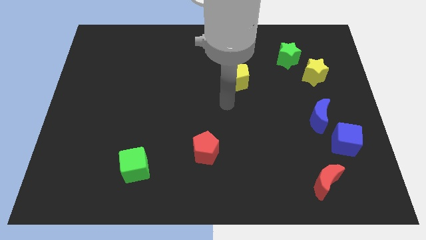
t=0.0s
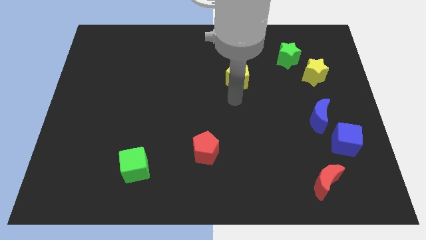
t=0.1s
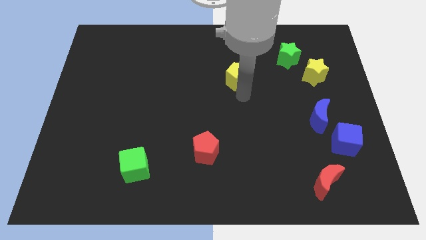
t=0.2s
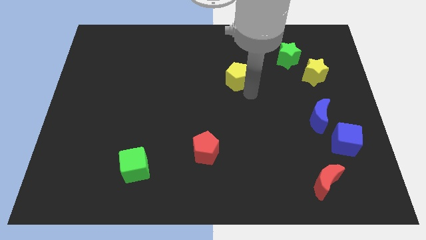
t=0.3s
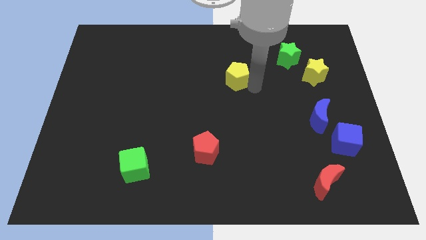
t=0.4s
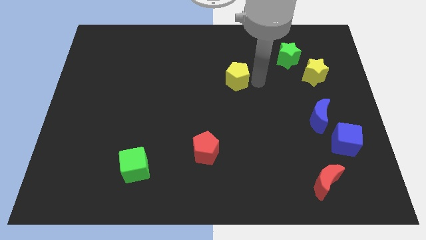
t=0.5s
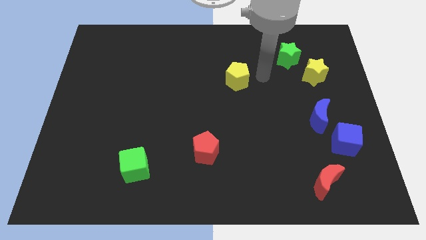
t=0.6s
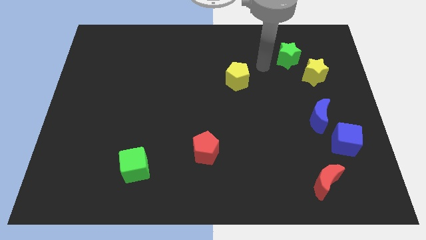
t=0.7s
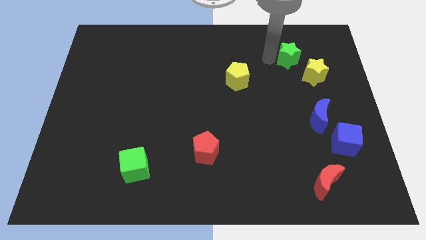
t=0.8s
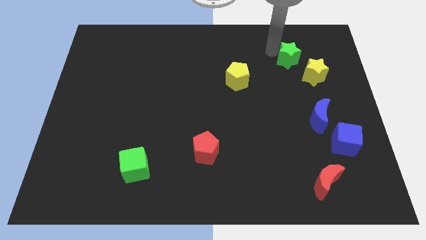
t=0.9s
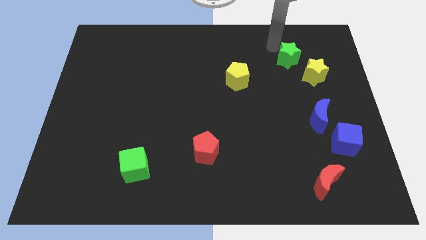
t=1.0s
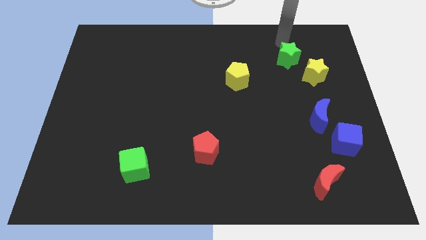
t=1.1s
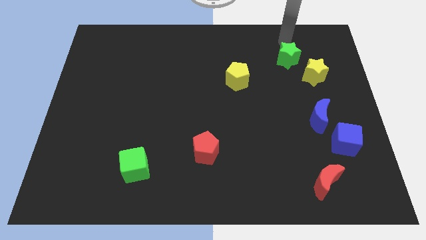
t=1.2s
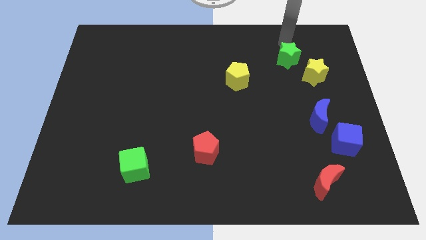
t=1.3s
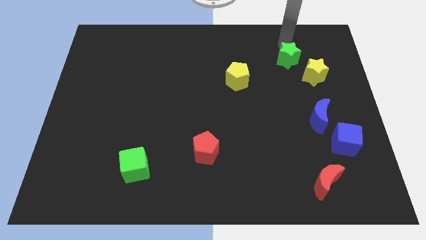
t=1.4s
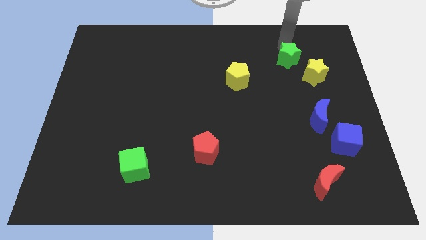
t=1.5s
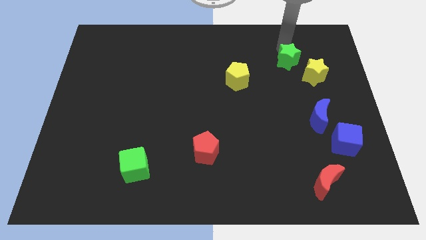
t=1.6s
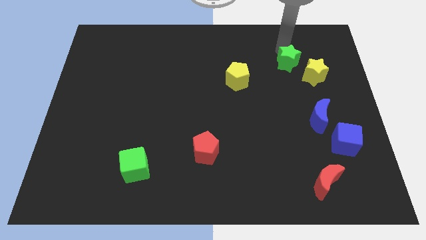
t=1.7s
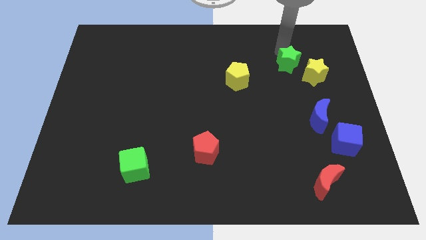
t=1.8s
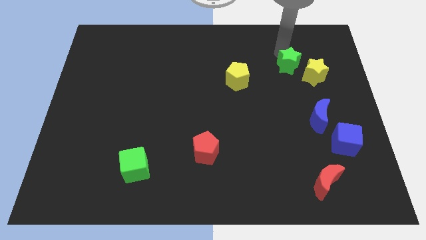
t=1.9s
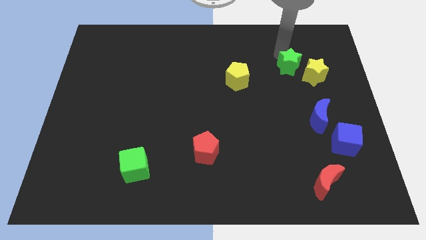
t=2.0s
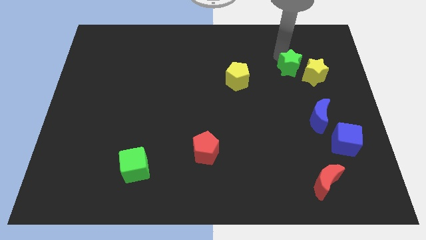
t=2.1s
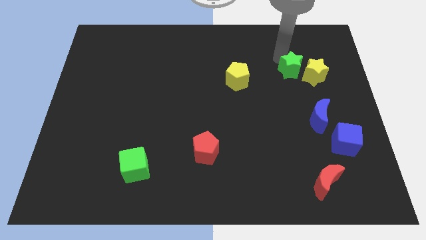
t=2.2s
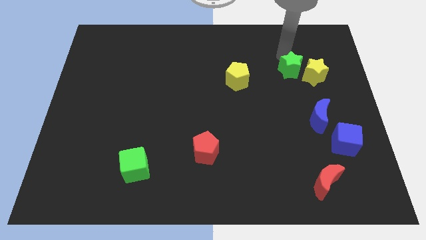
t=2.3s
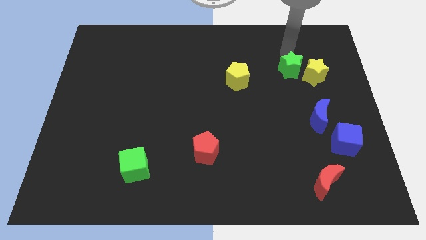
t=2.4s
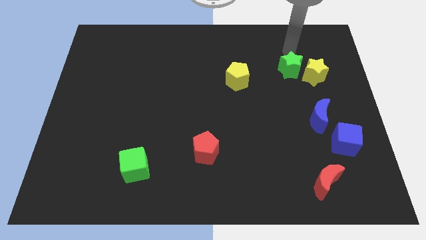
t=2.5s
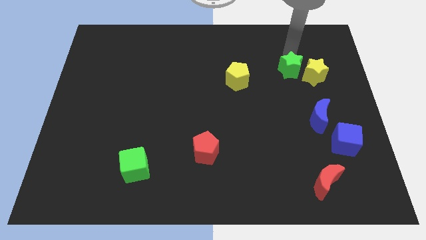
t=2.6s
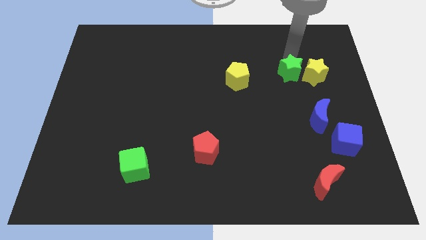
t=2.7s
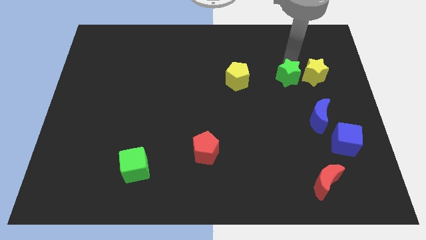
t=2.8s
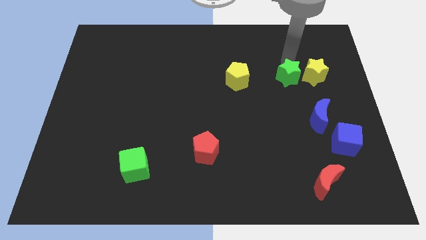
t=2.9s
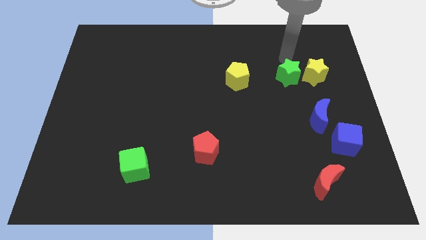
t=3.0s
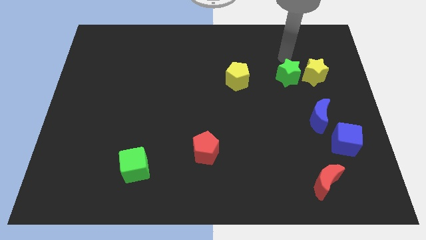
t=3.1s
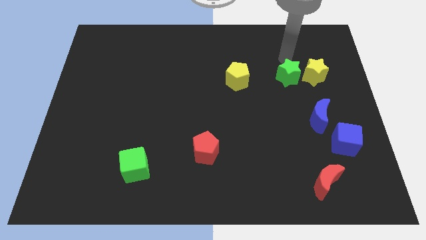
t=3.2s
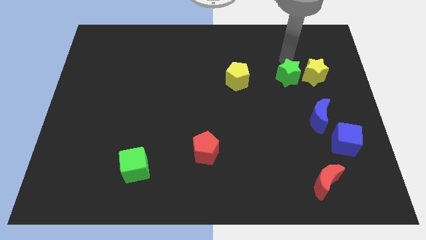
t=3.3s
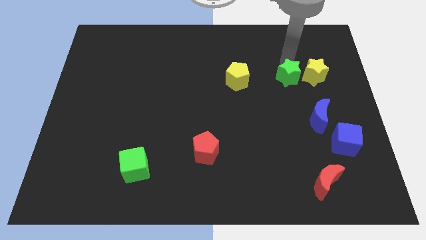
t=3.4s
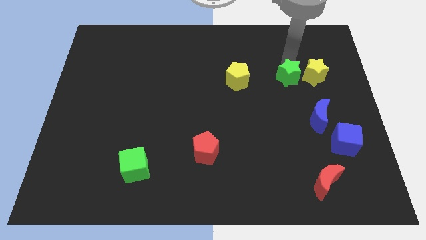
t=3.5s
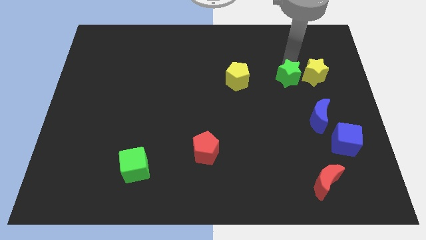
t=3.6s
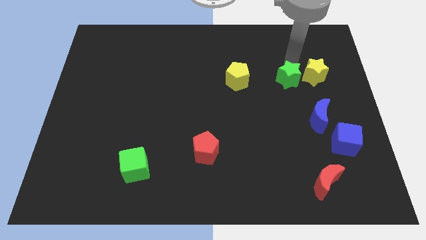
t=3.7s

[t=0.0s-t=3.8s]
move the green star downwards a little

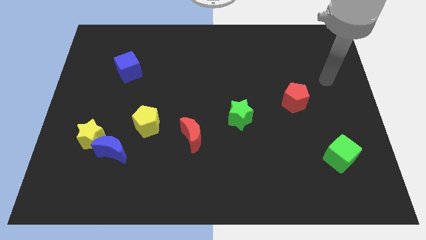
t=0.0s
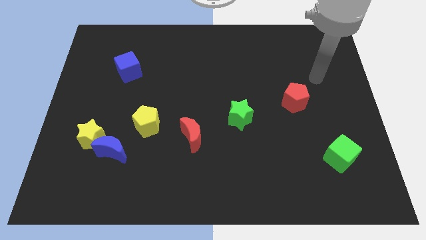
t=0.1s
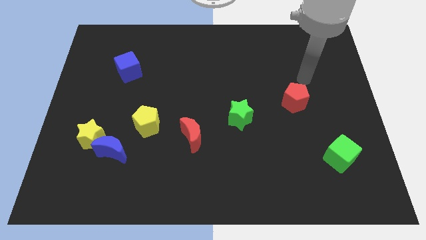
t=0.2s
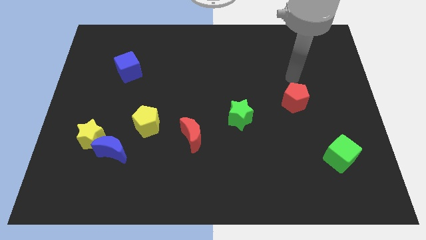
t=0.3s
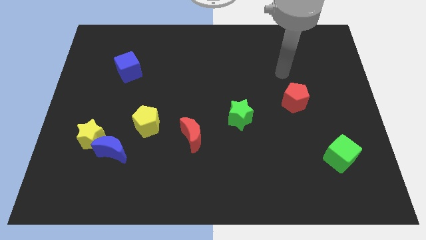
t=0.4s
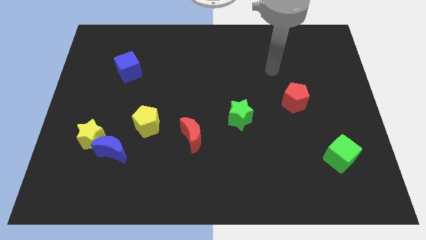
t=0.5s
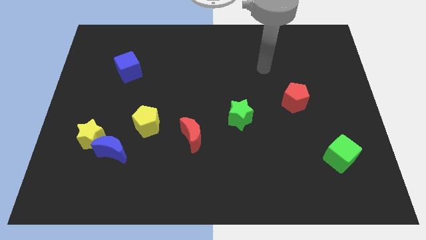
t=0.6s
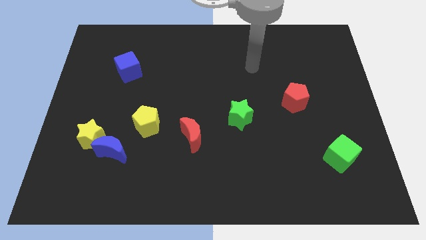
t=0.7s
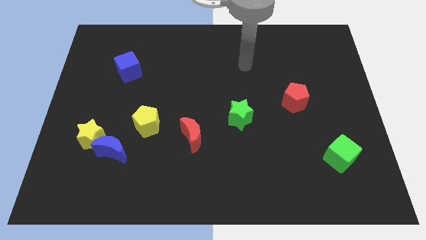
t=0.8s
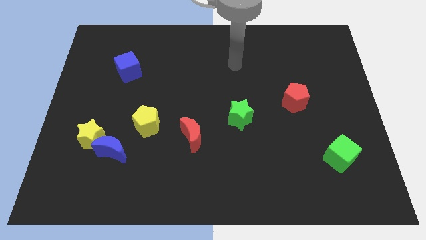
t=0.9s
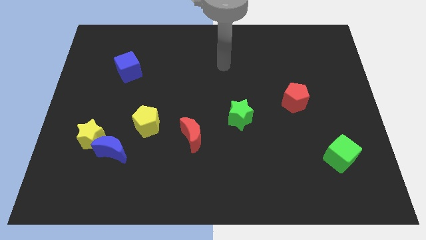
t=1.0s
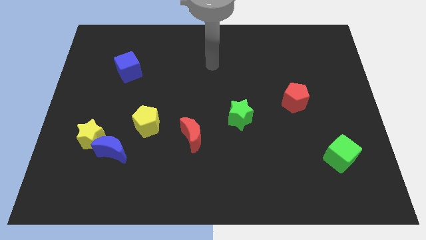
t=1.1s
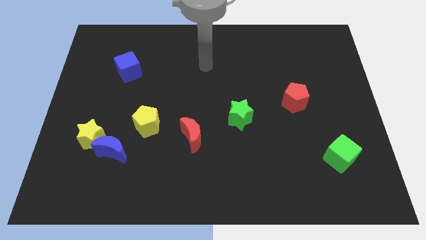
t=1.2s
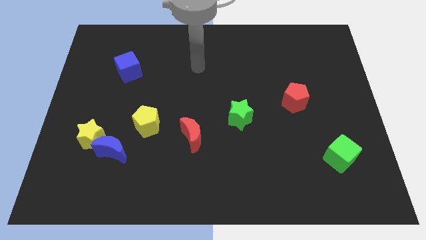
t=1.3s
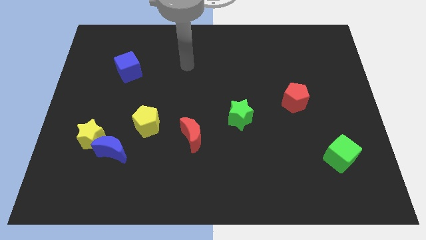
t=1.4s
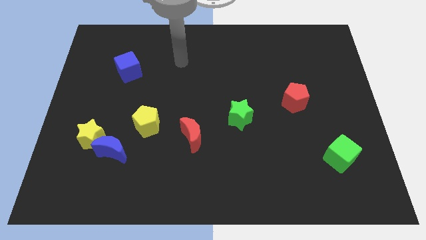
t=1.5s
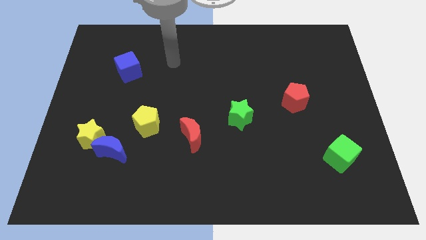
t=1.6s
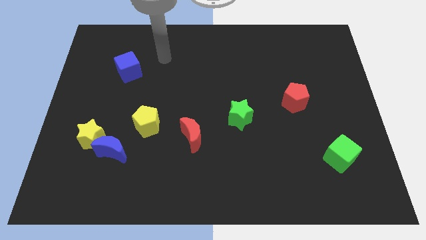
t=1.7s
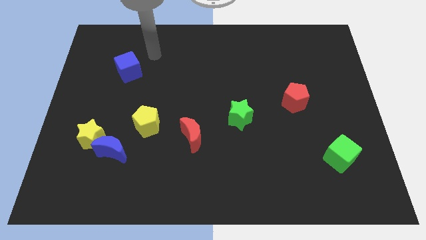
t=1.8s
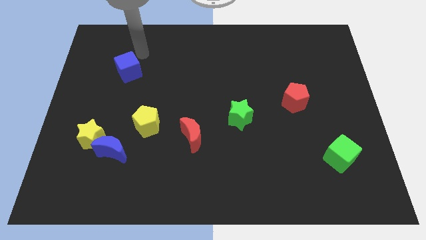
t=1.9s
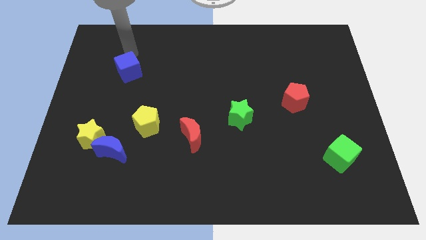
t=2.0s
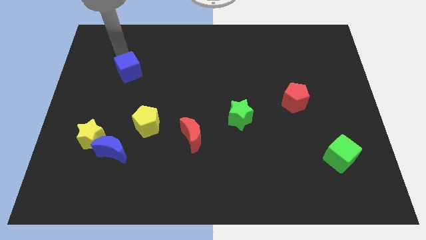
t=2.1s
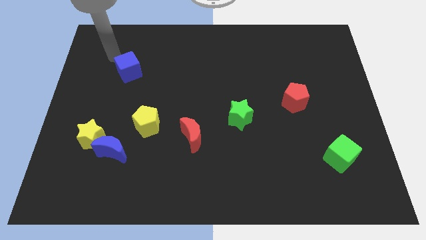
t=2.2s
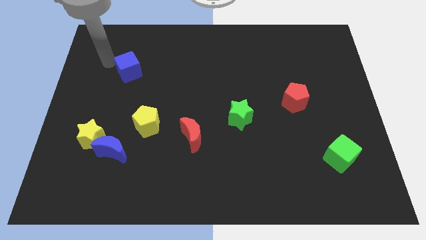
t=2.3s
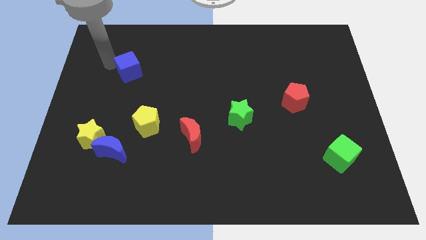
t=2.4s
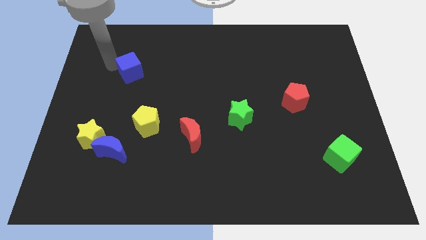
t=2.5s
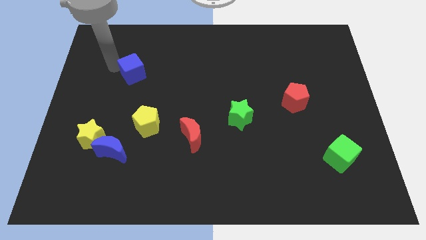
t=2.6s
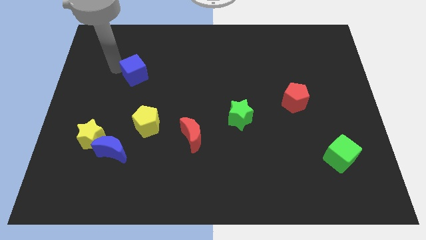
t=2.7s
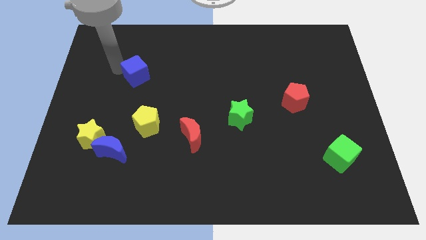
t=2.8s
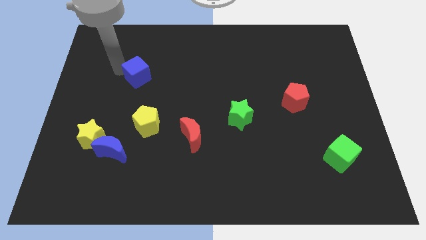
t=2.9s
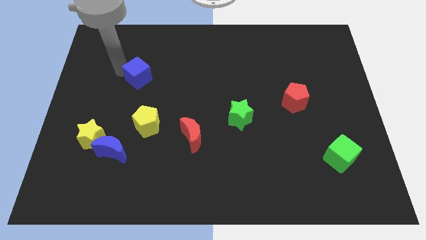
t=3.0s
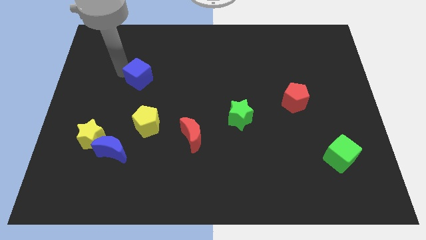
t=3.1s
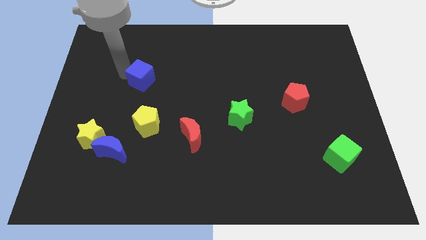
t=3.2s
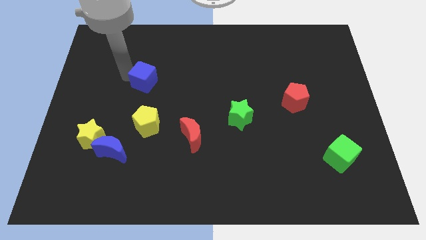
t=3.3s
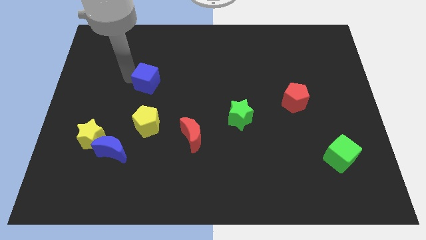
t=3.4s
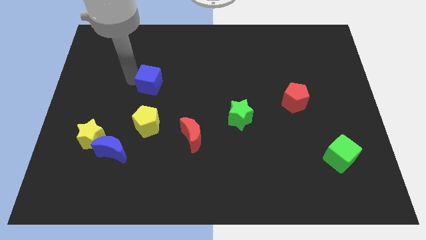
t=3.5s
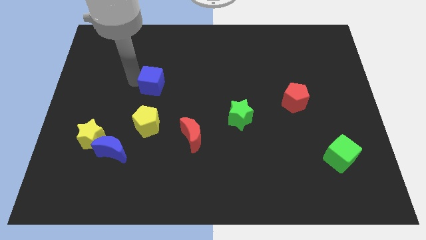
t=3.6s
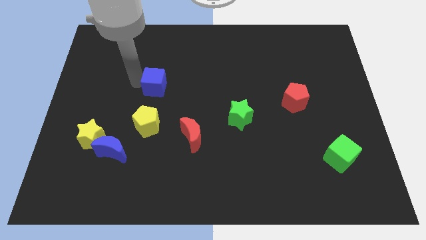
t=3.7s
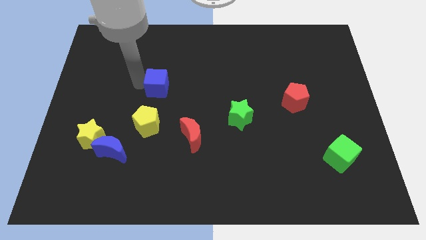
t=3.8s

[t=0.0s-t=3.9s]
move the blue cube slightly to the right

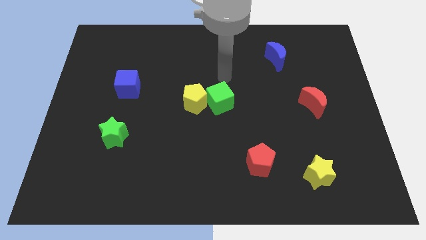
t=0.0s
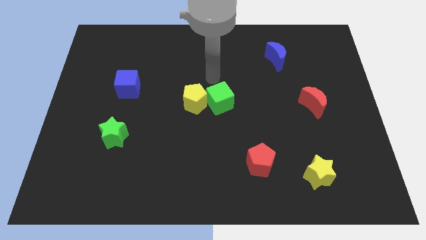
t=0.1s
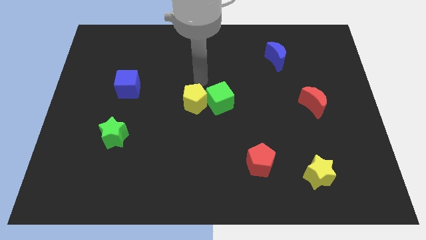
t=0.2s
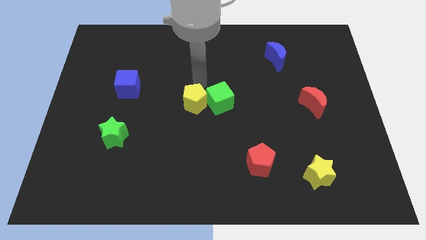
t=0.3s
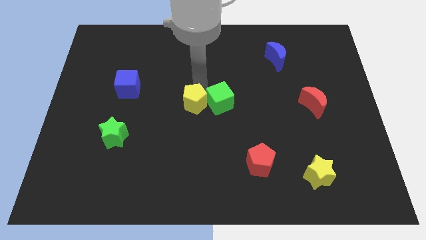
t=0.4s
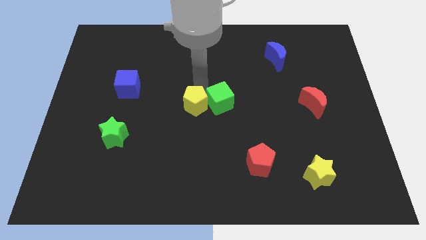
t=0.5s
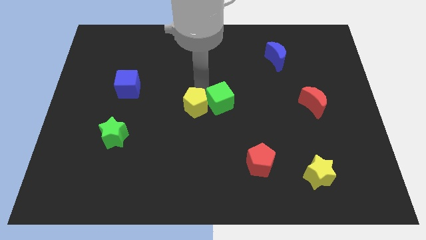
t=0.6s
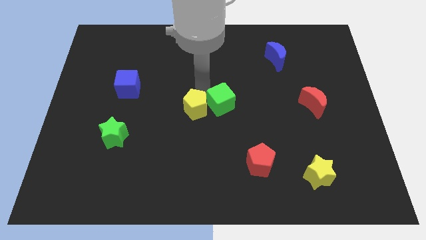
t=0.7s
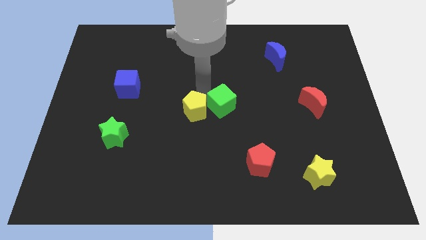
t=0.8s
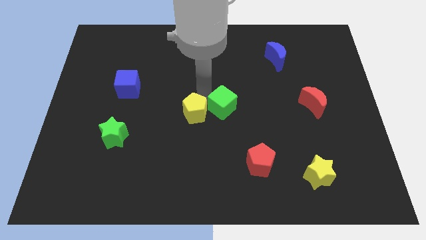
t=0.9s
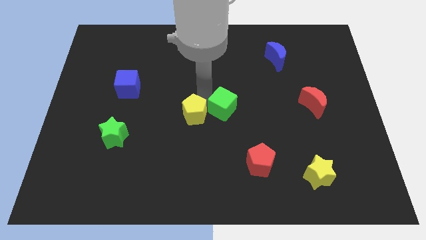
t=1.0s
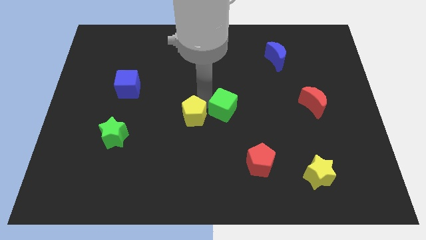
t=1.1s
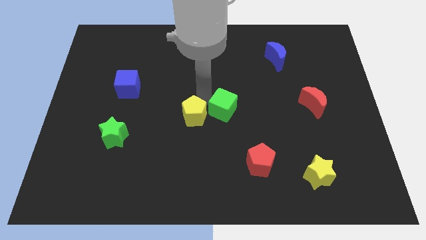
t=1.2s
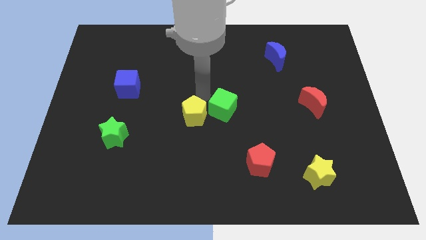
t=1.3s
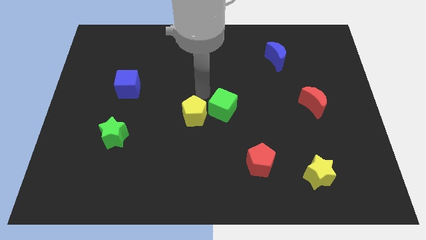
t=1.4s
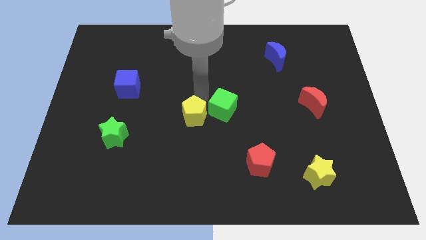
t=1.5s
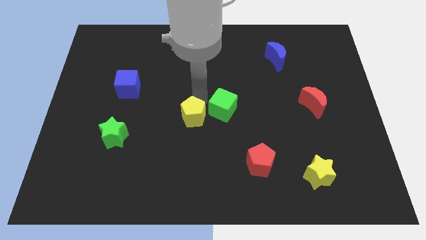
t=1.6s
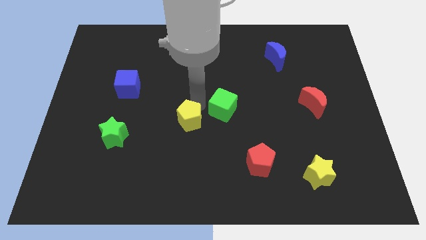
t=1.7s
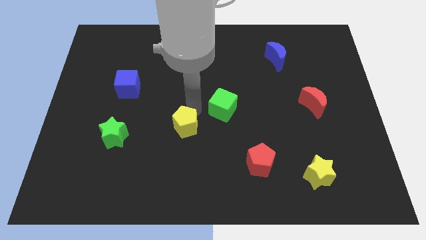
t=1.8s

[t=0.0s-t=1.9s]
slide the yellow pentagon a little bit downwards
